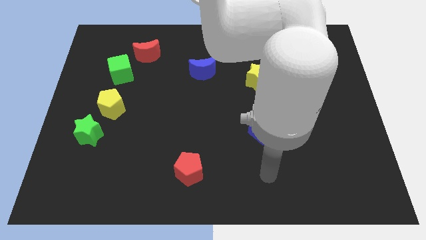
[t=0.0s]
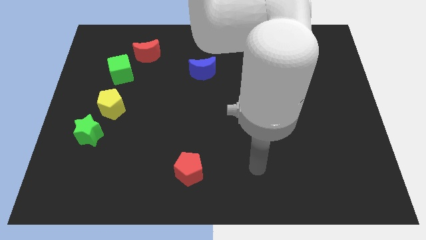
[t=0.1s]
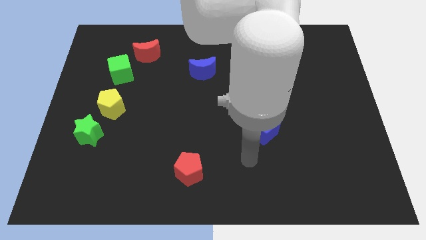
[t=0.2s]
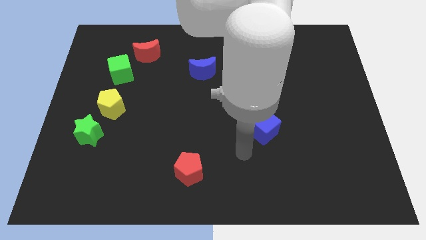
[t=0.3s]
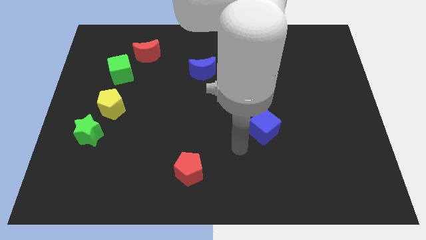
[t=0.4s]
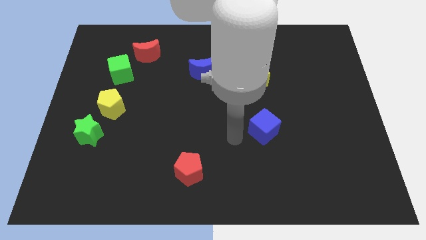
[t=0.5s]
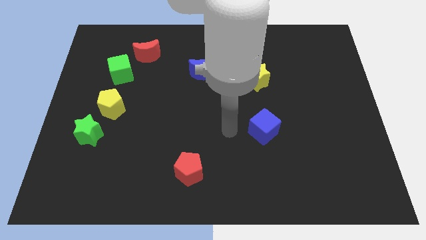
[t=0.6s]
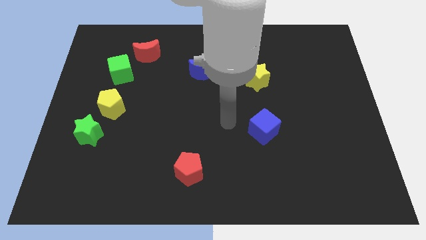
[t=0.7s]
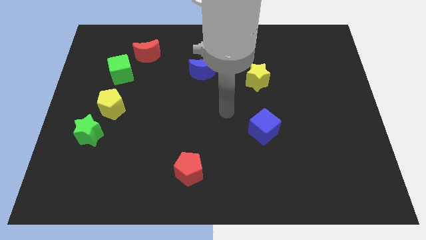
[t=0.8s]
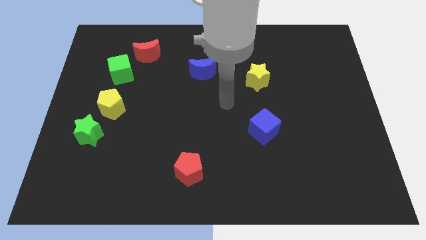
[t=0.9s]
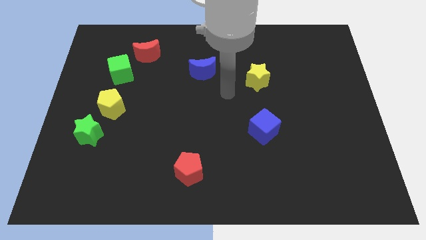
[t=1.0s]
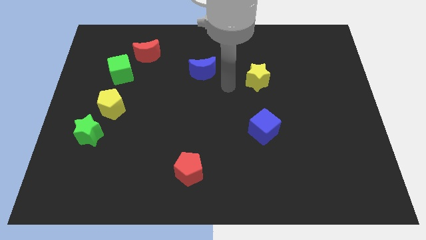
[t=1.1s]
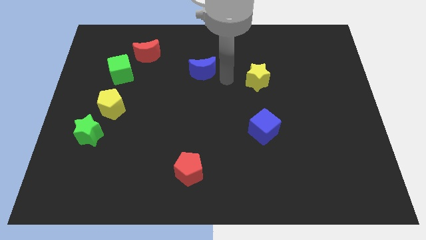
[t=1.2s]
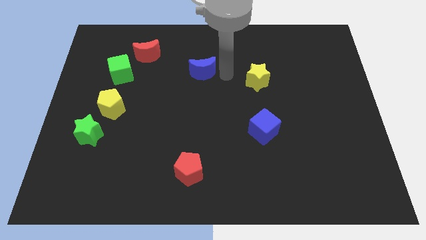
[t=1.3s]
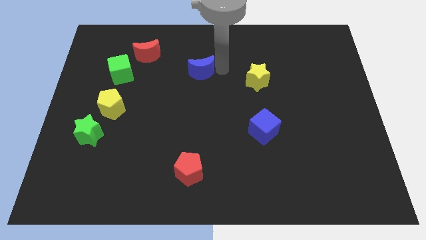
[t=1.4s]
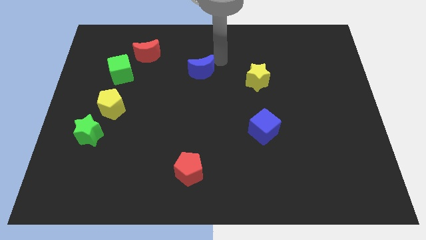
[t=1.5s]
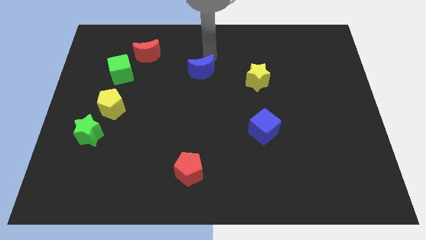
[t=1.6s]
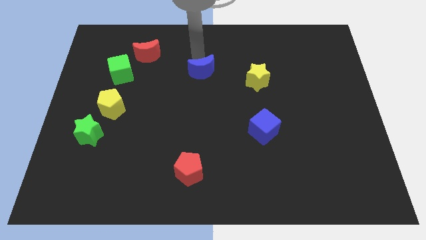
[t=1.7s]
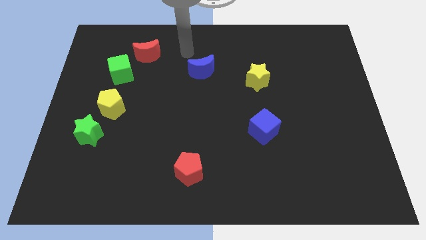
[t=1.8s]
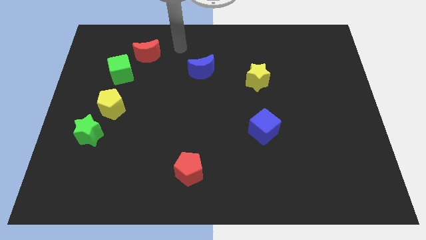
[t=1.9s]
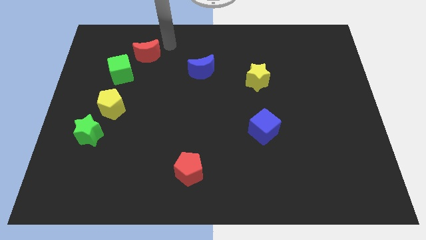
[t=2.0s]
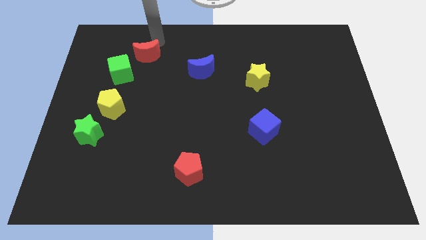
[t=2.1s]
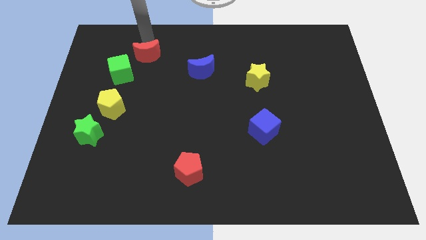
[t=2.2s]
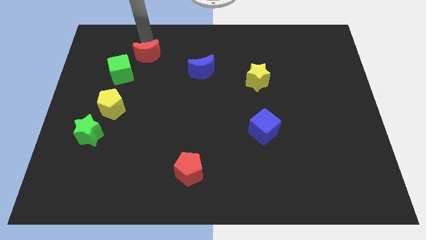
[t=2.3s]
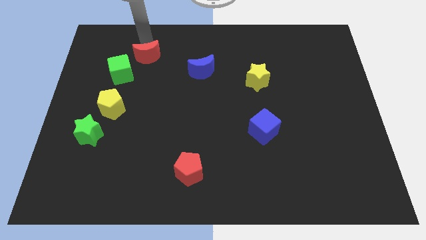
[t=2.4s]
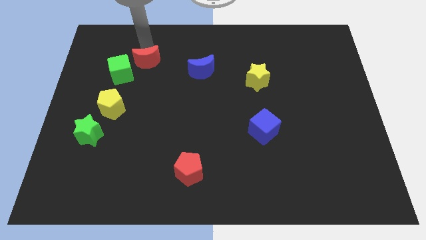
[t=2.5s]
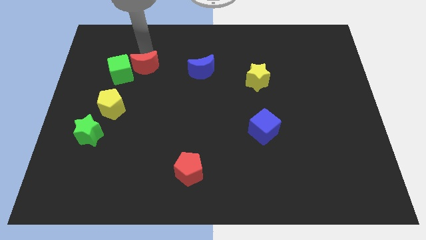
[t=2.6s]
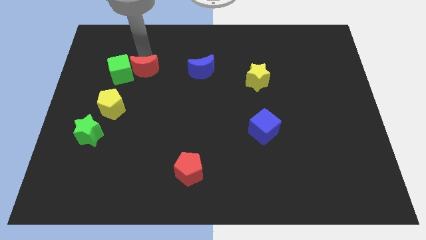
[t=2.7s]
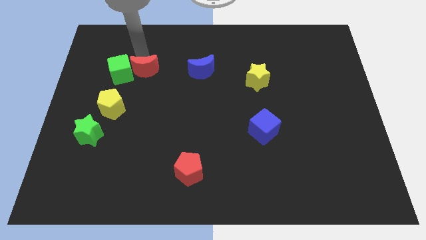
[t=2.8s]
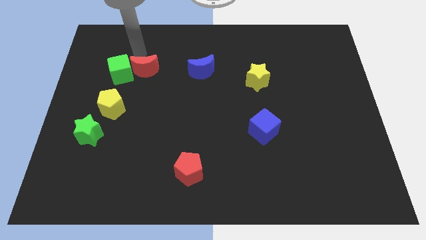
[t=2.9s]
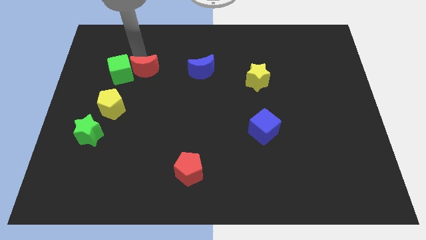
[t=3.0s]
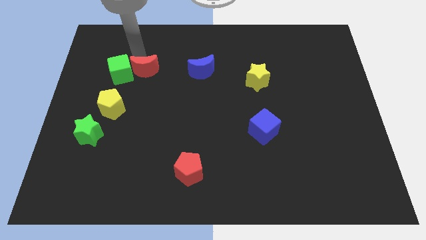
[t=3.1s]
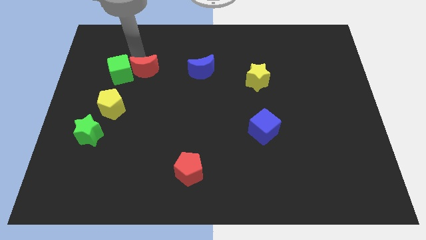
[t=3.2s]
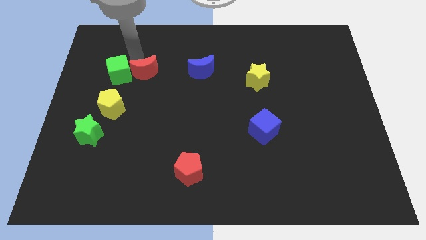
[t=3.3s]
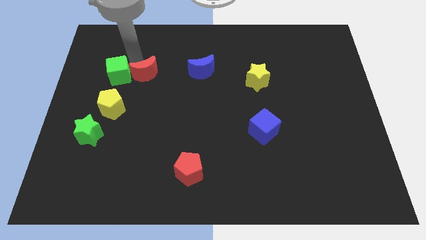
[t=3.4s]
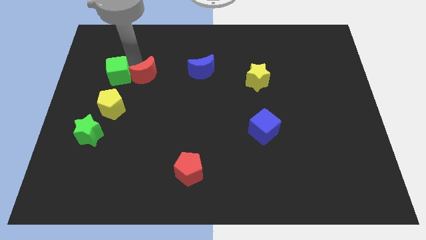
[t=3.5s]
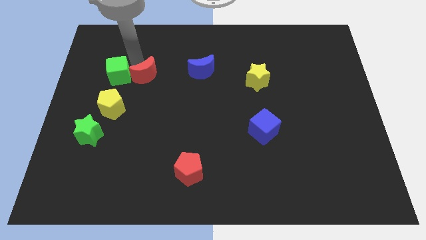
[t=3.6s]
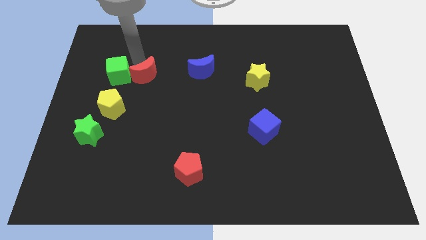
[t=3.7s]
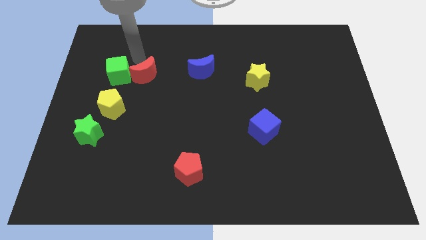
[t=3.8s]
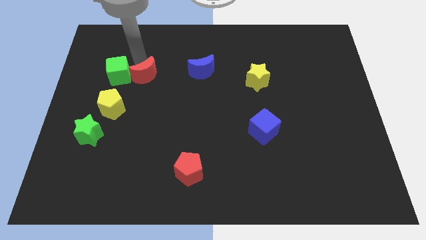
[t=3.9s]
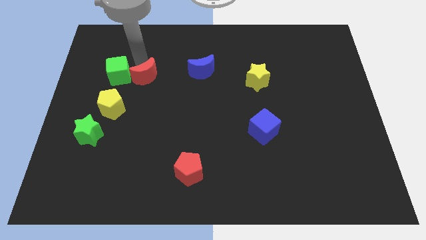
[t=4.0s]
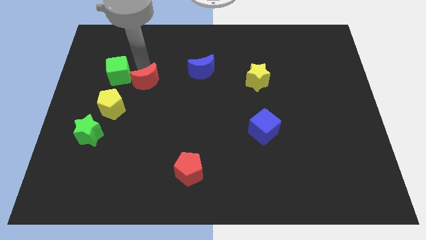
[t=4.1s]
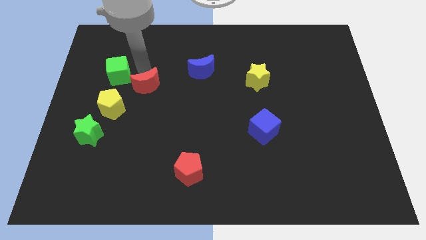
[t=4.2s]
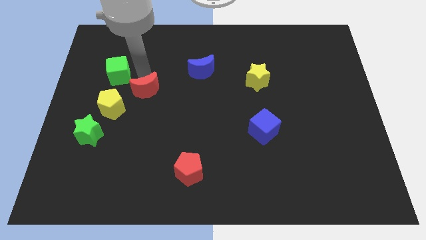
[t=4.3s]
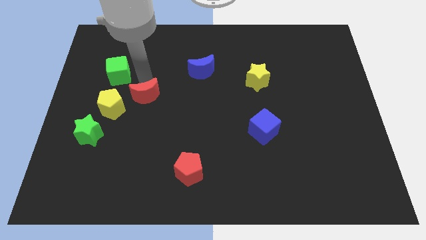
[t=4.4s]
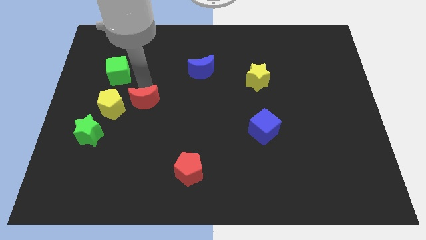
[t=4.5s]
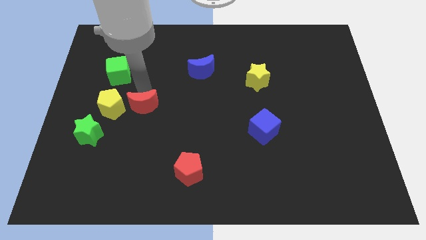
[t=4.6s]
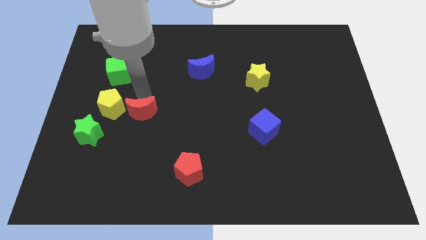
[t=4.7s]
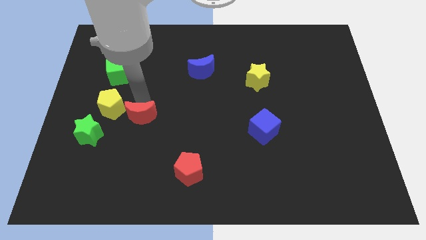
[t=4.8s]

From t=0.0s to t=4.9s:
move the red moon down

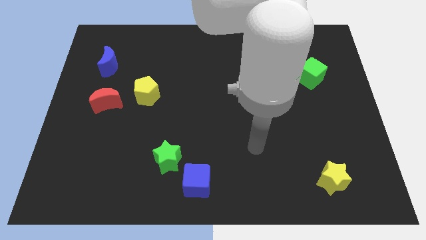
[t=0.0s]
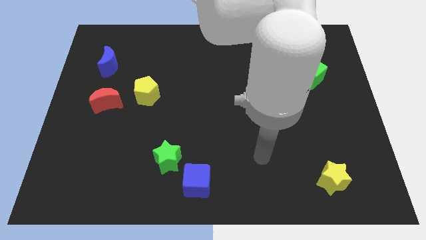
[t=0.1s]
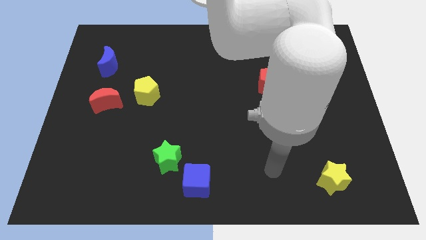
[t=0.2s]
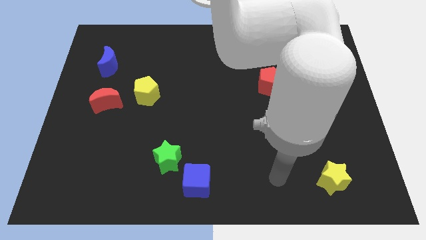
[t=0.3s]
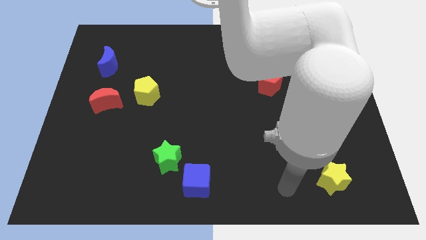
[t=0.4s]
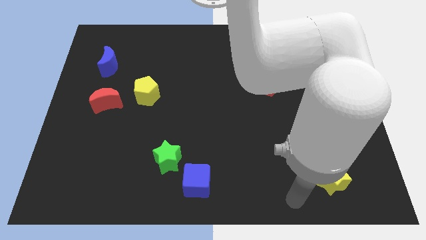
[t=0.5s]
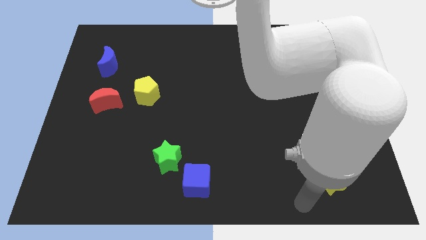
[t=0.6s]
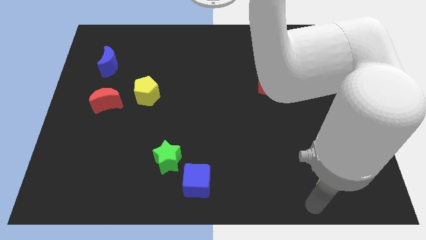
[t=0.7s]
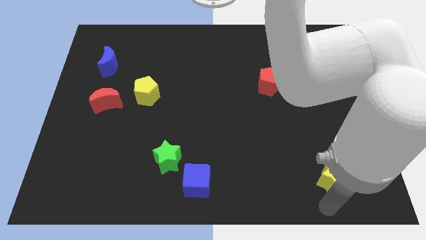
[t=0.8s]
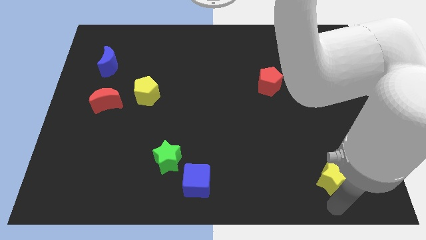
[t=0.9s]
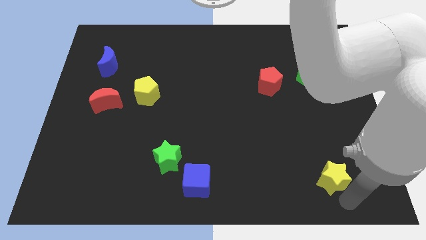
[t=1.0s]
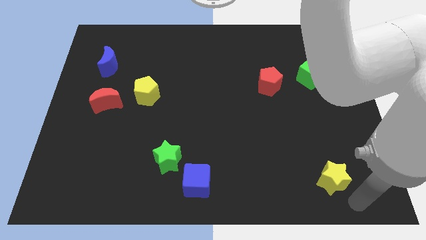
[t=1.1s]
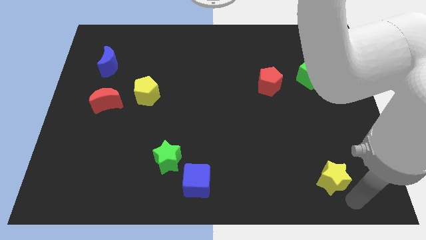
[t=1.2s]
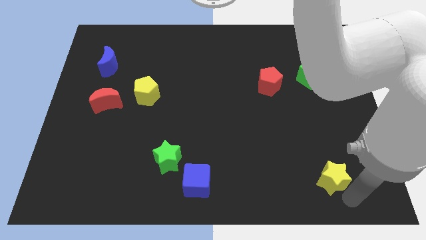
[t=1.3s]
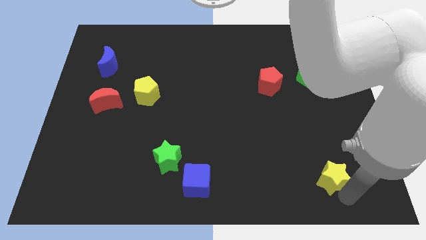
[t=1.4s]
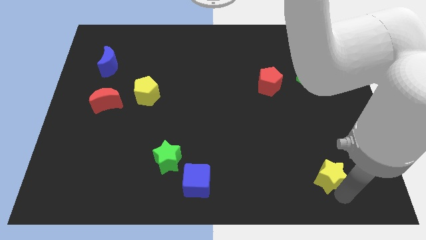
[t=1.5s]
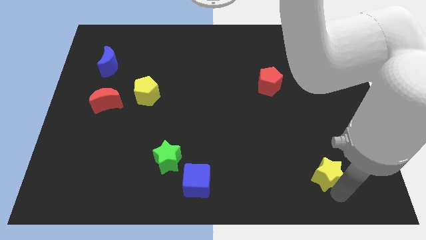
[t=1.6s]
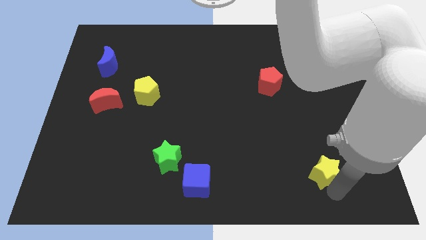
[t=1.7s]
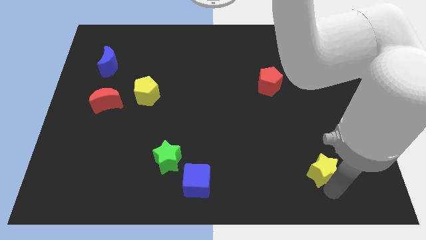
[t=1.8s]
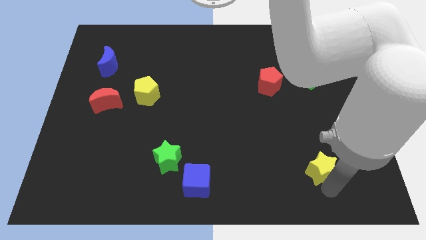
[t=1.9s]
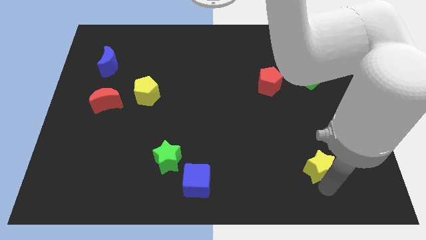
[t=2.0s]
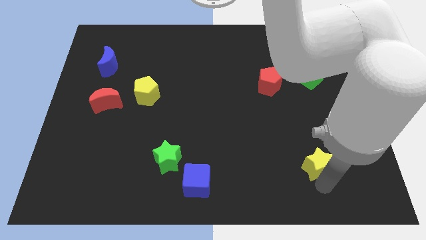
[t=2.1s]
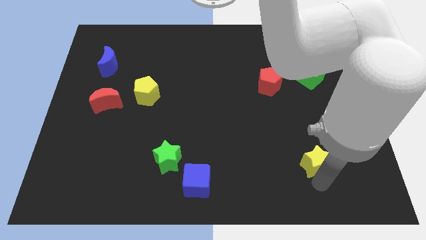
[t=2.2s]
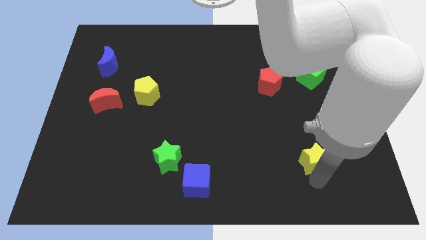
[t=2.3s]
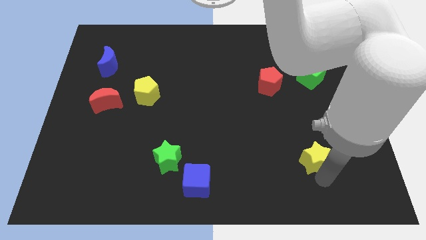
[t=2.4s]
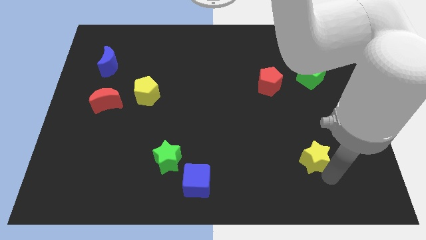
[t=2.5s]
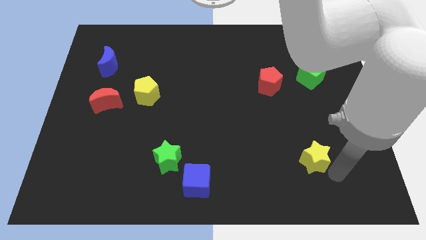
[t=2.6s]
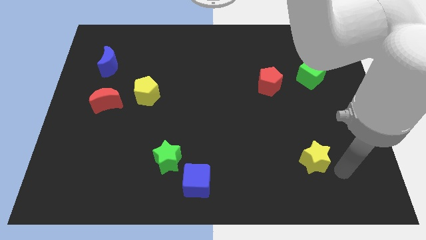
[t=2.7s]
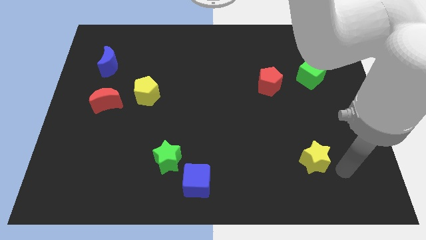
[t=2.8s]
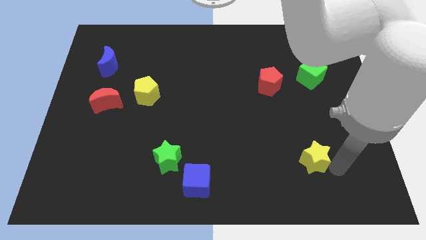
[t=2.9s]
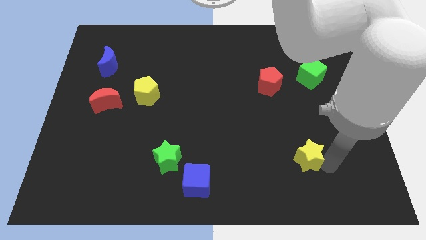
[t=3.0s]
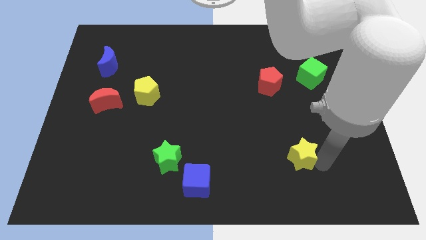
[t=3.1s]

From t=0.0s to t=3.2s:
push the yellow star up and left diagonally somewhat
